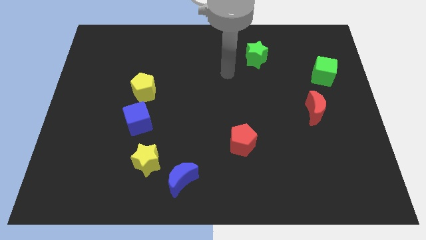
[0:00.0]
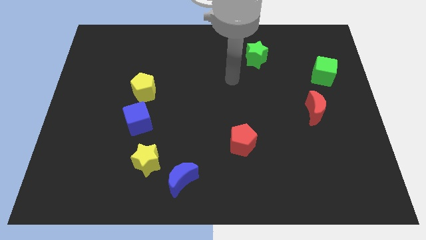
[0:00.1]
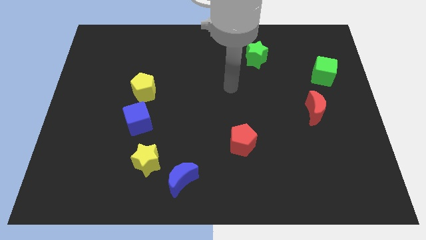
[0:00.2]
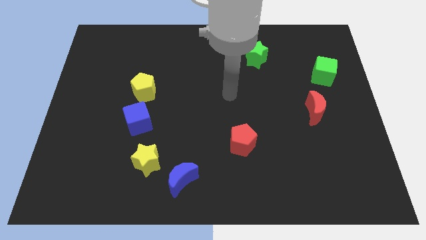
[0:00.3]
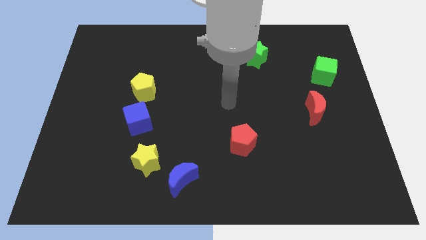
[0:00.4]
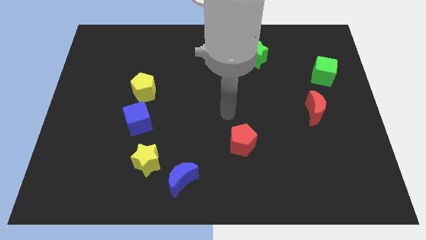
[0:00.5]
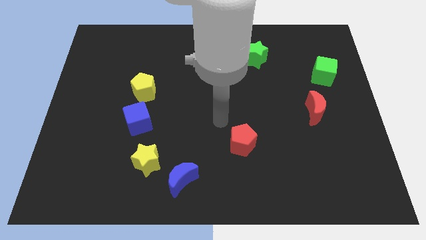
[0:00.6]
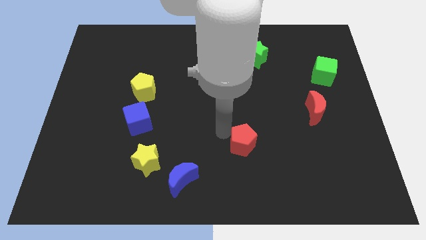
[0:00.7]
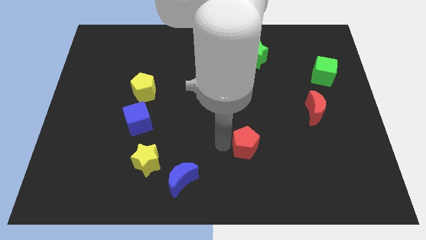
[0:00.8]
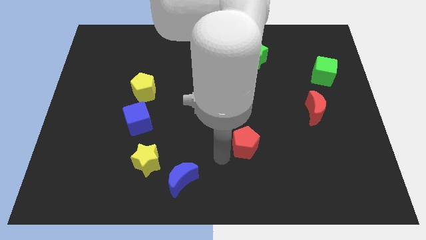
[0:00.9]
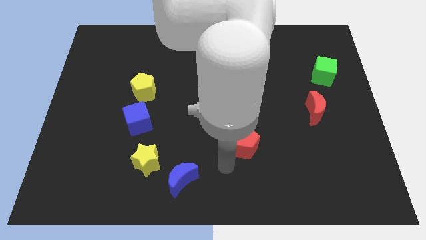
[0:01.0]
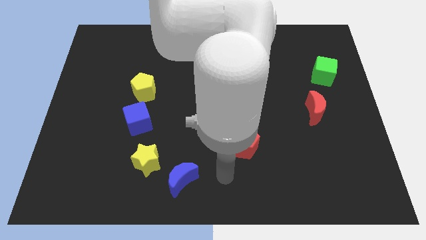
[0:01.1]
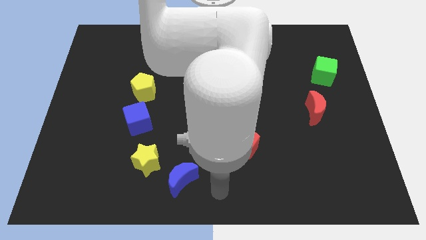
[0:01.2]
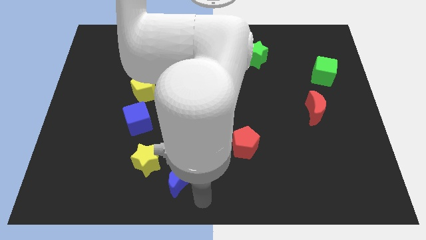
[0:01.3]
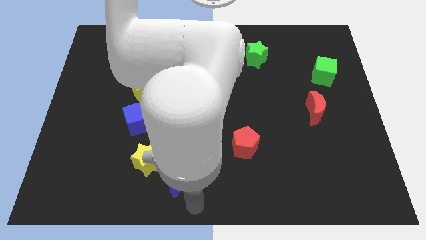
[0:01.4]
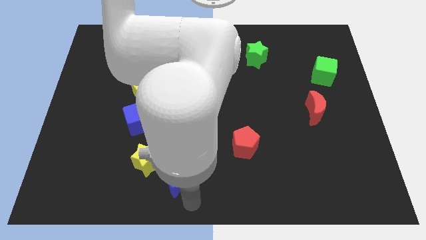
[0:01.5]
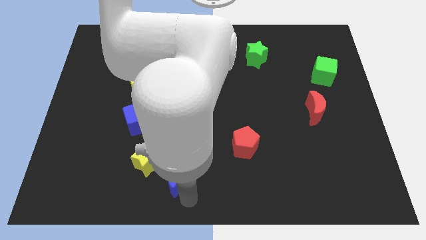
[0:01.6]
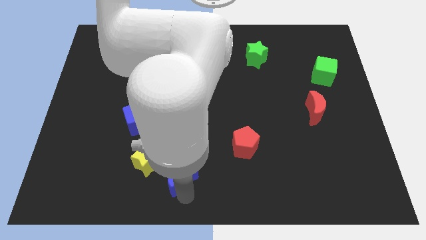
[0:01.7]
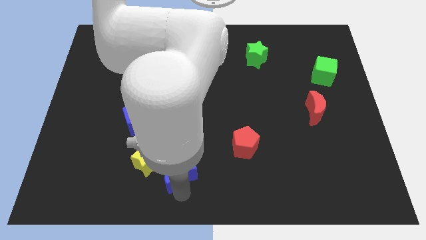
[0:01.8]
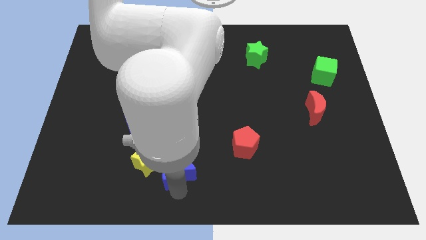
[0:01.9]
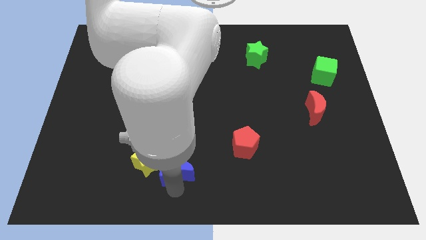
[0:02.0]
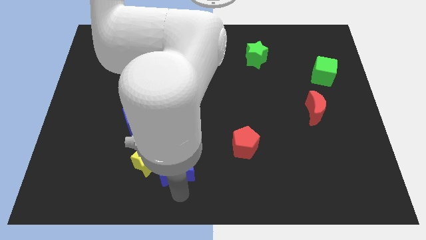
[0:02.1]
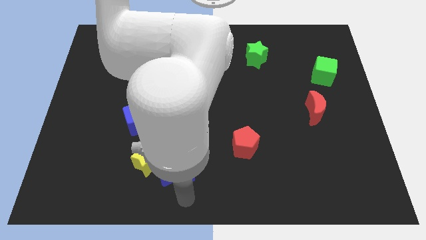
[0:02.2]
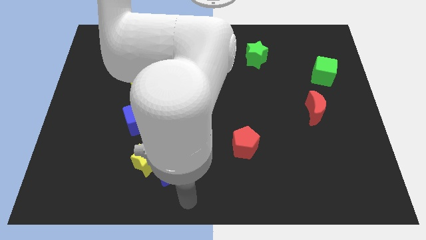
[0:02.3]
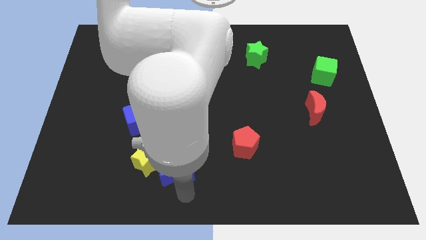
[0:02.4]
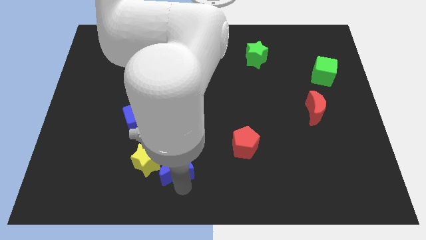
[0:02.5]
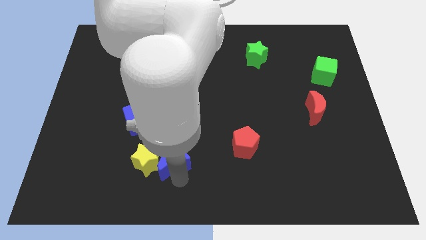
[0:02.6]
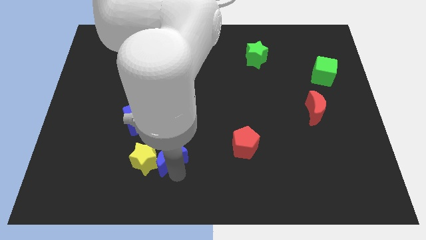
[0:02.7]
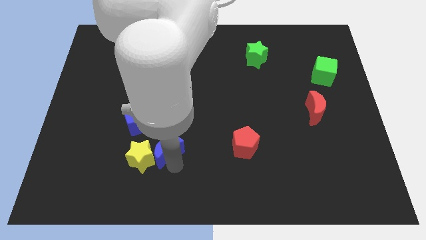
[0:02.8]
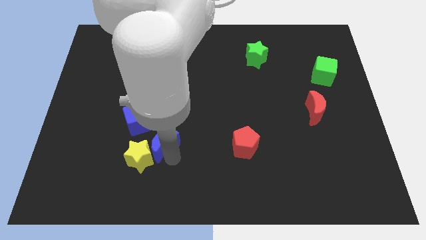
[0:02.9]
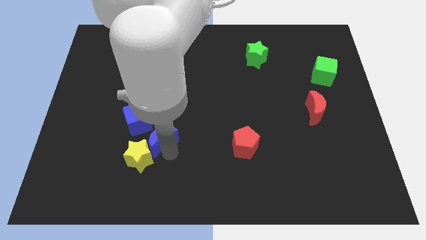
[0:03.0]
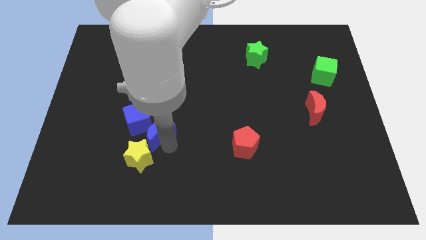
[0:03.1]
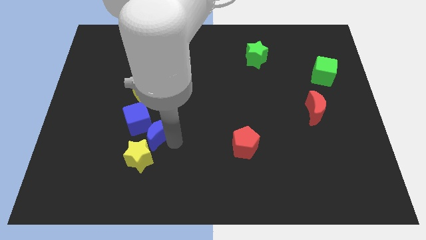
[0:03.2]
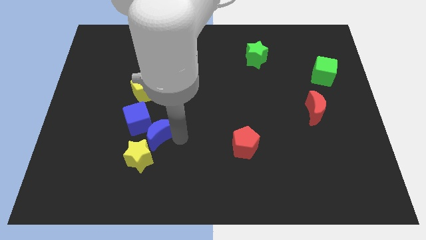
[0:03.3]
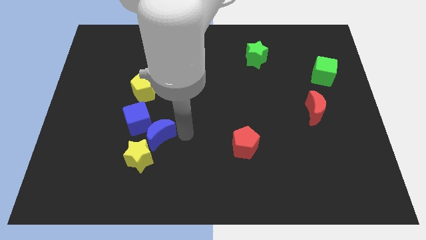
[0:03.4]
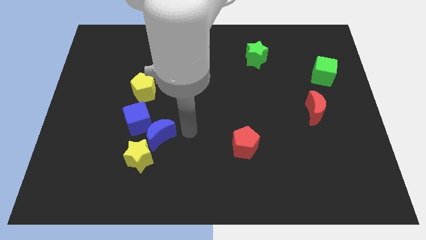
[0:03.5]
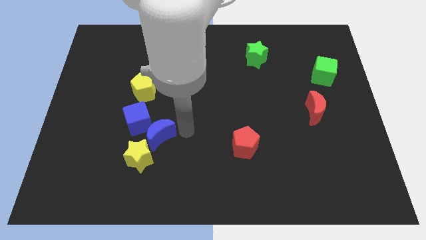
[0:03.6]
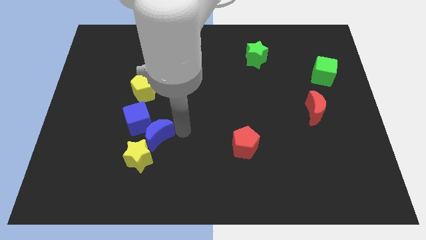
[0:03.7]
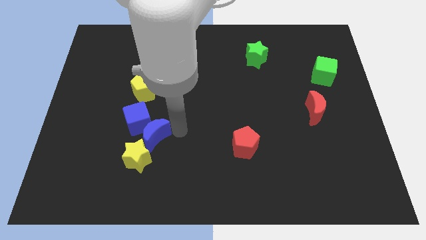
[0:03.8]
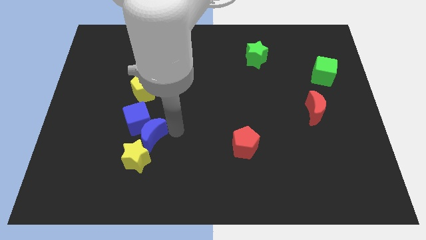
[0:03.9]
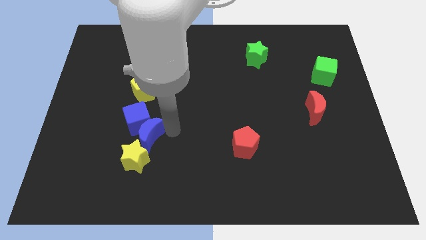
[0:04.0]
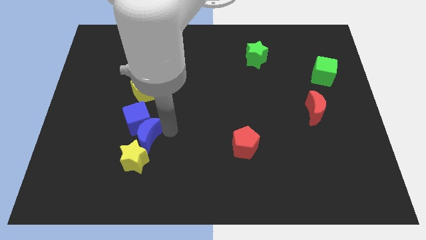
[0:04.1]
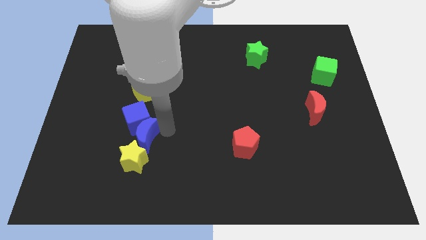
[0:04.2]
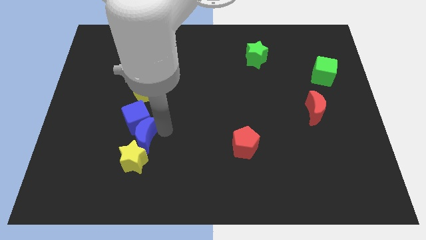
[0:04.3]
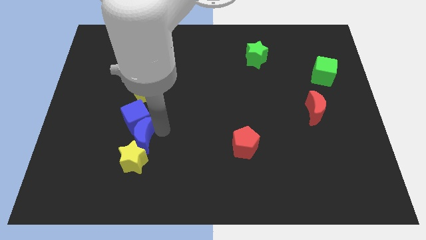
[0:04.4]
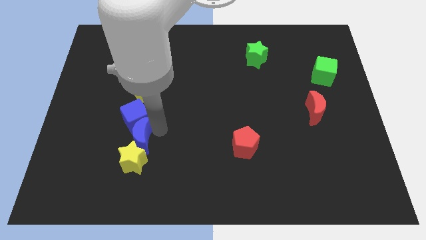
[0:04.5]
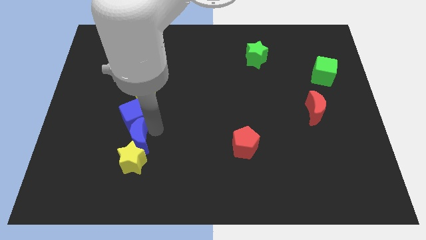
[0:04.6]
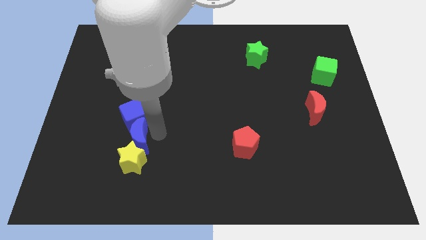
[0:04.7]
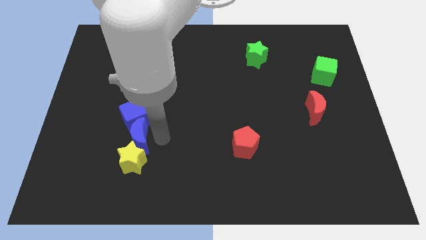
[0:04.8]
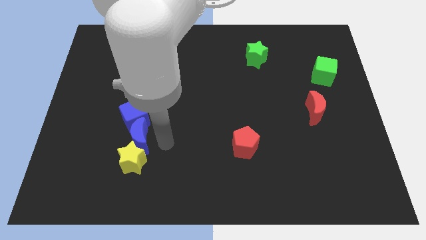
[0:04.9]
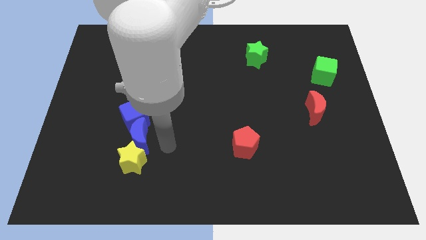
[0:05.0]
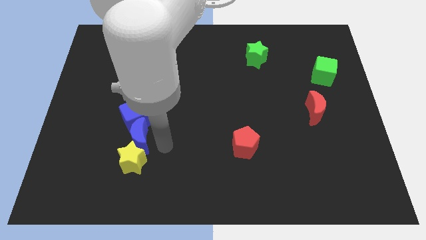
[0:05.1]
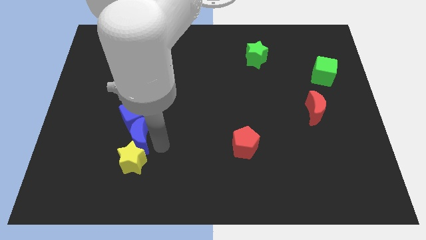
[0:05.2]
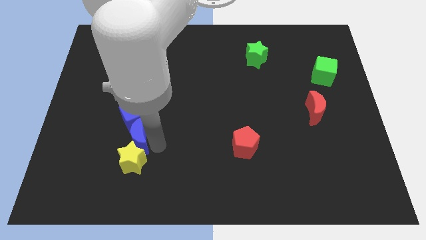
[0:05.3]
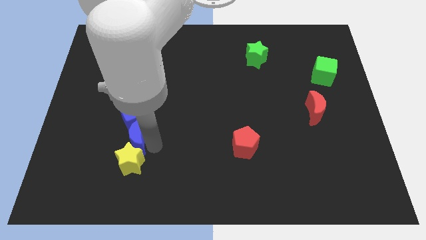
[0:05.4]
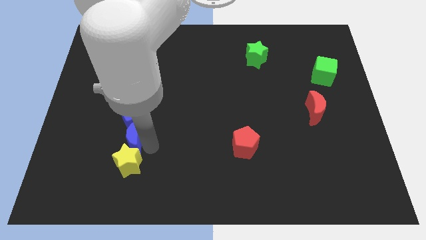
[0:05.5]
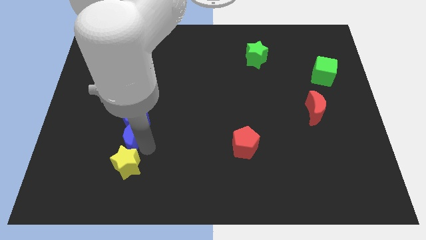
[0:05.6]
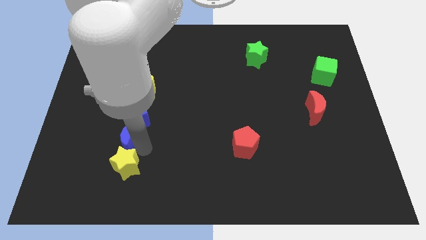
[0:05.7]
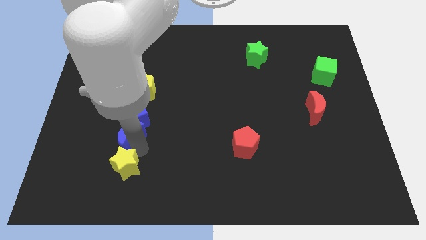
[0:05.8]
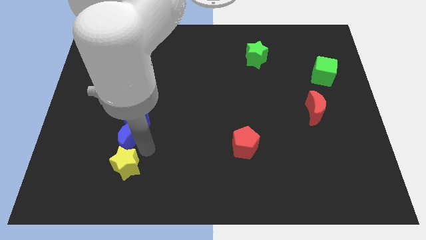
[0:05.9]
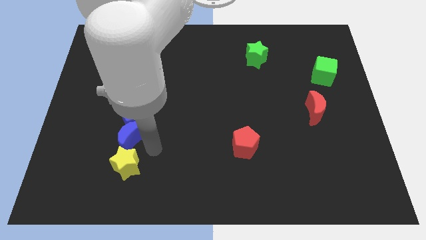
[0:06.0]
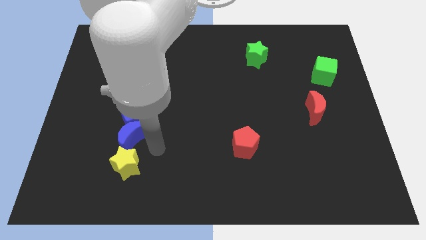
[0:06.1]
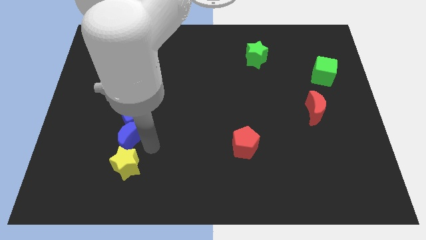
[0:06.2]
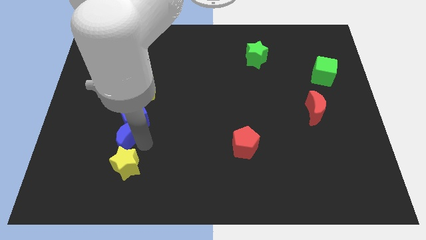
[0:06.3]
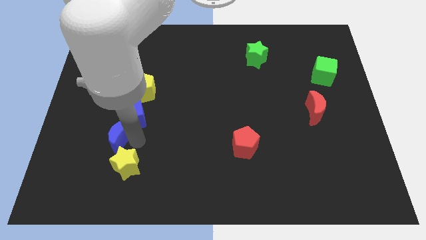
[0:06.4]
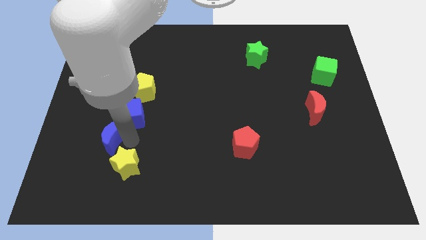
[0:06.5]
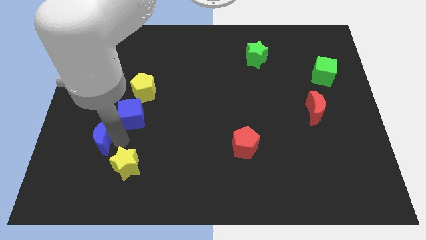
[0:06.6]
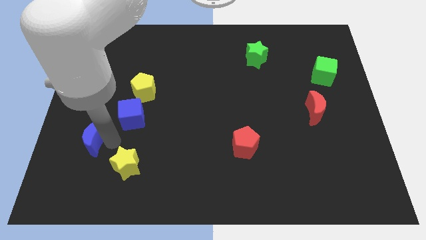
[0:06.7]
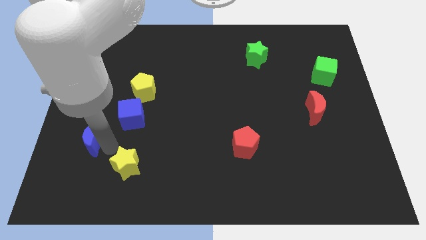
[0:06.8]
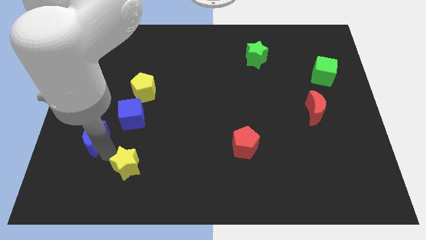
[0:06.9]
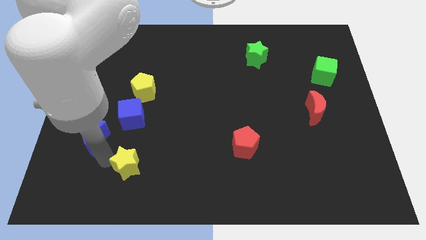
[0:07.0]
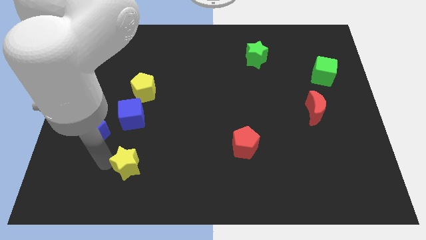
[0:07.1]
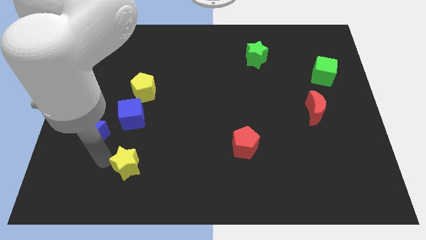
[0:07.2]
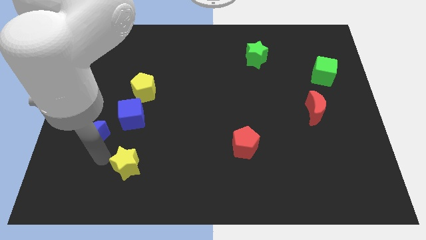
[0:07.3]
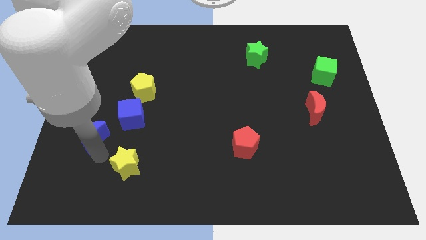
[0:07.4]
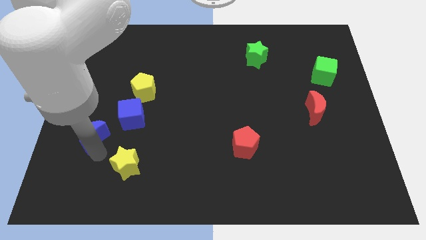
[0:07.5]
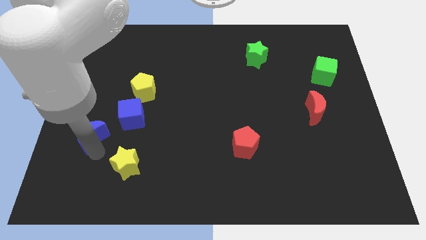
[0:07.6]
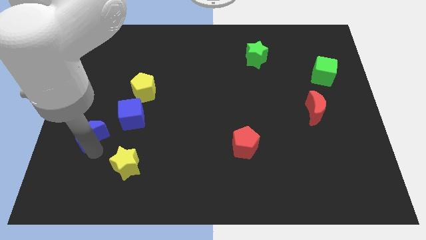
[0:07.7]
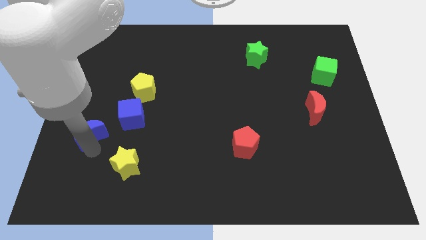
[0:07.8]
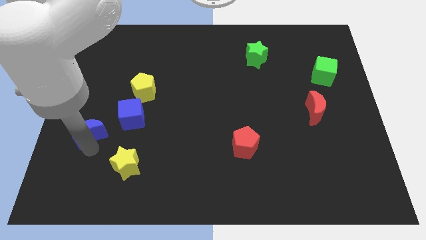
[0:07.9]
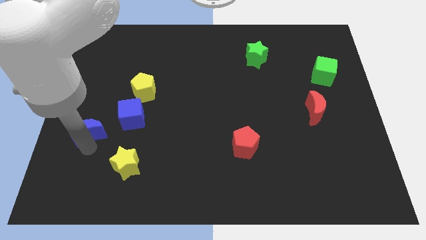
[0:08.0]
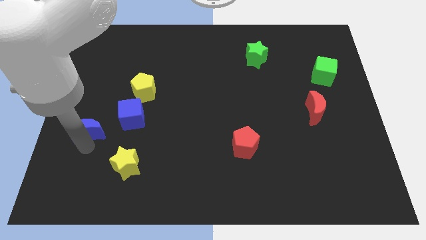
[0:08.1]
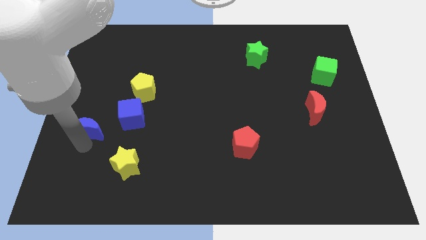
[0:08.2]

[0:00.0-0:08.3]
slide the blue moon to the left side
